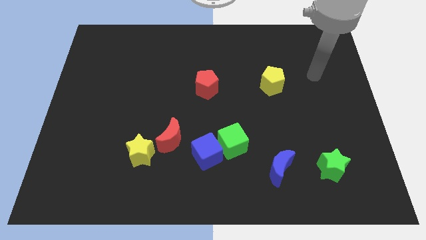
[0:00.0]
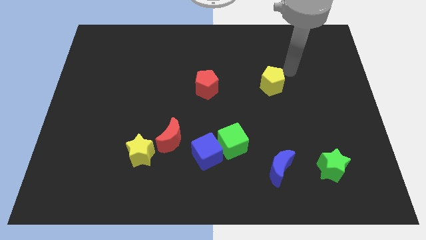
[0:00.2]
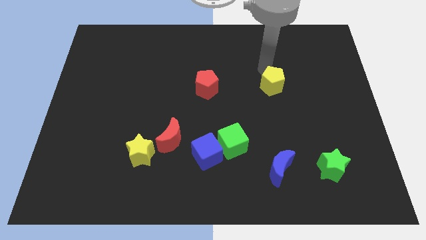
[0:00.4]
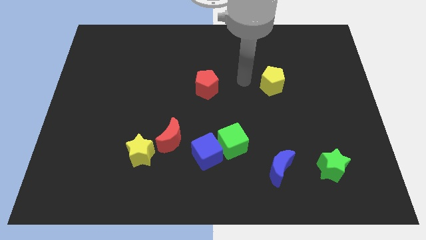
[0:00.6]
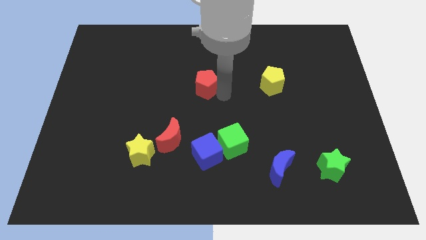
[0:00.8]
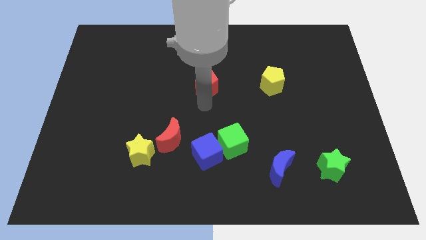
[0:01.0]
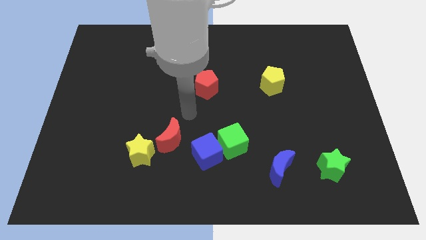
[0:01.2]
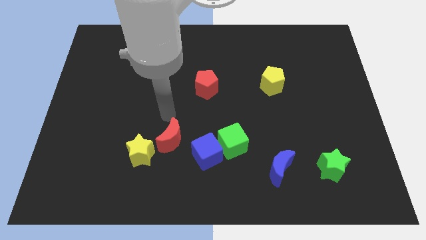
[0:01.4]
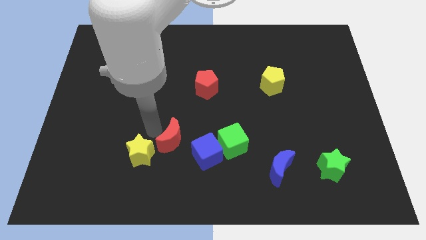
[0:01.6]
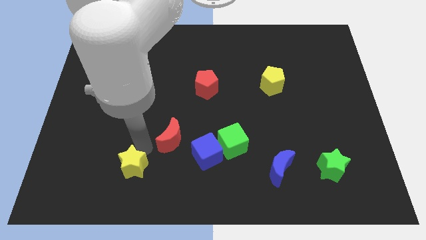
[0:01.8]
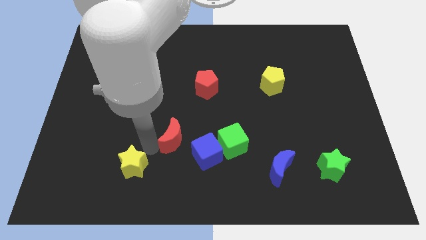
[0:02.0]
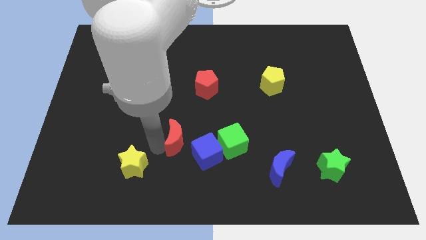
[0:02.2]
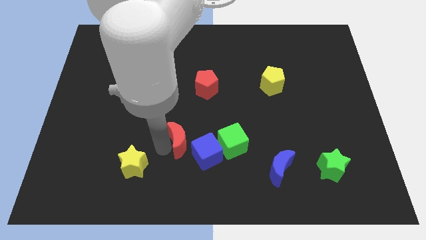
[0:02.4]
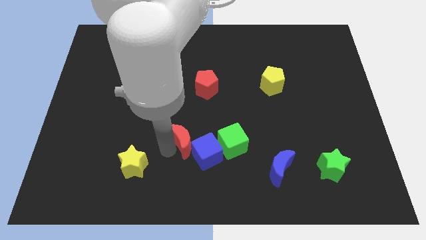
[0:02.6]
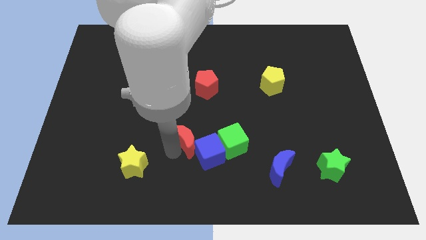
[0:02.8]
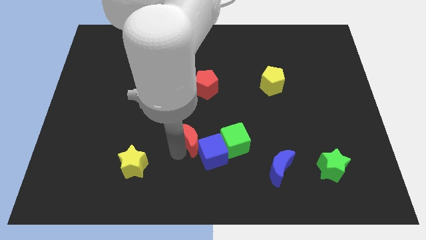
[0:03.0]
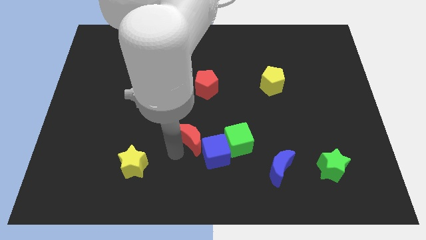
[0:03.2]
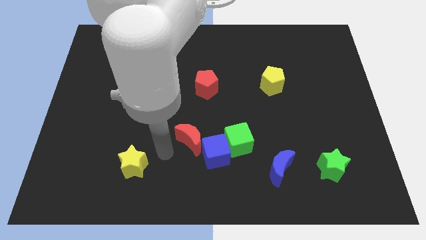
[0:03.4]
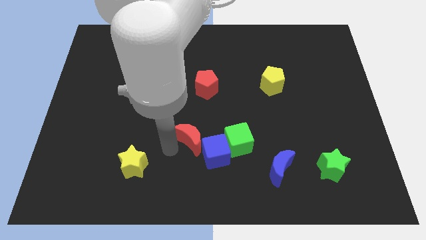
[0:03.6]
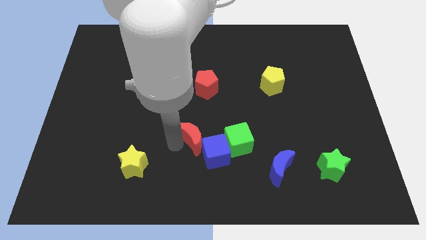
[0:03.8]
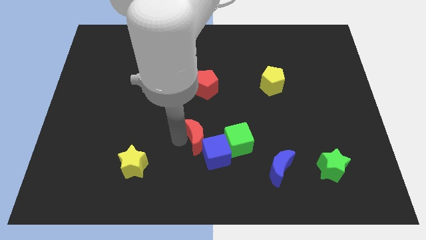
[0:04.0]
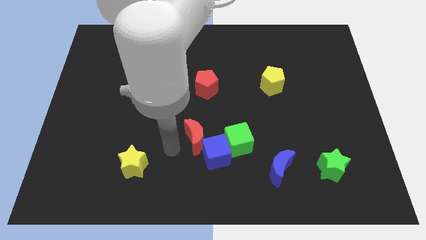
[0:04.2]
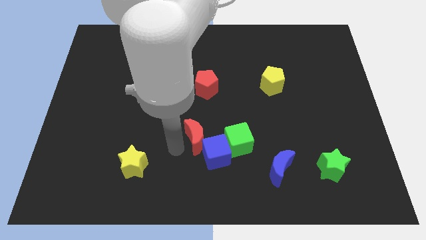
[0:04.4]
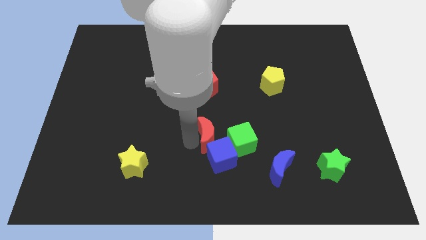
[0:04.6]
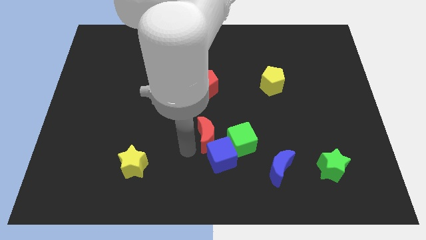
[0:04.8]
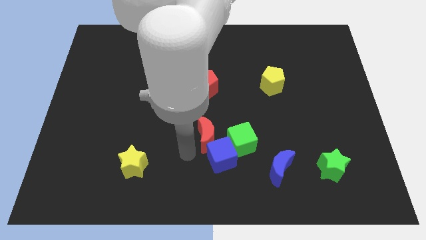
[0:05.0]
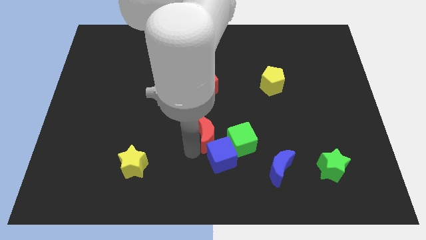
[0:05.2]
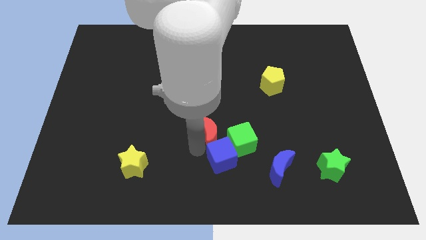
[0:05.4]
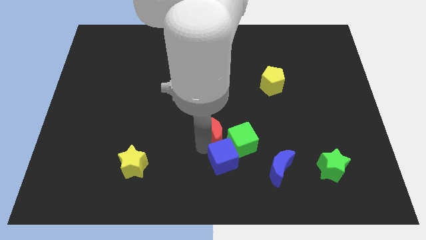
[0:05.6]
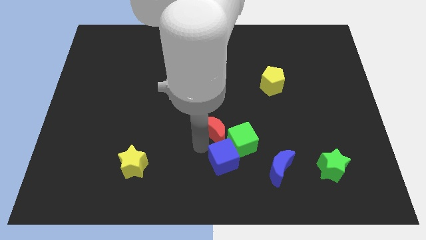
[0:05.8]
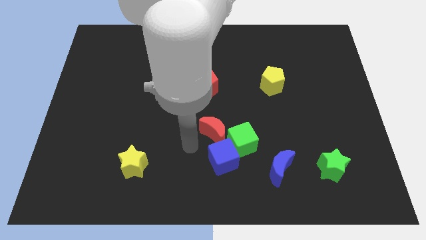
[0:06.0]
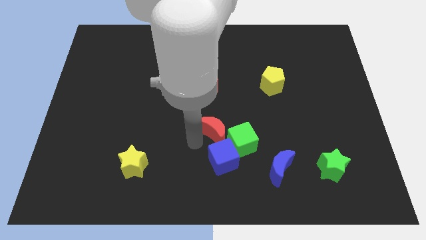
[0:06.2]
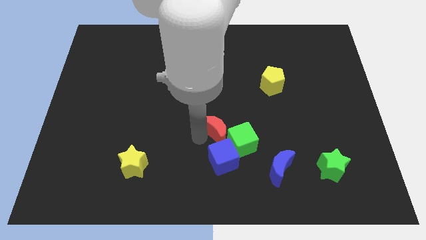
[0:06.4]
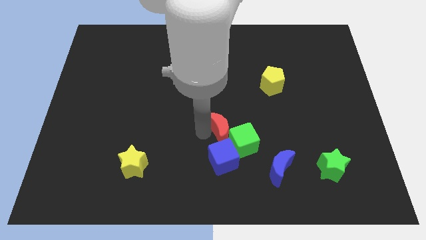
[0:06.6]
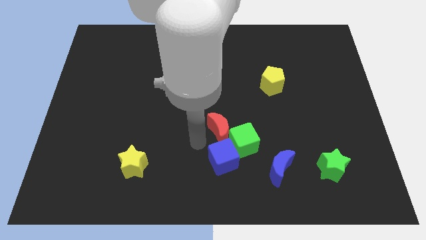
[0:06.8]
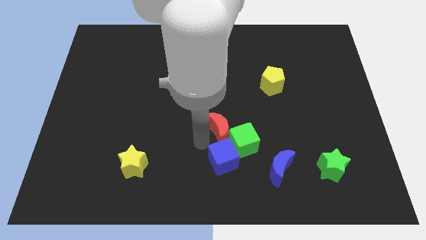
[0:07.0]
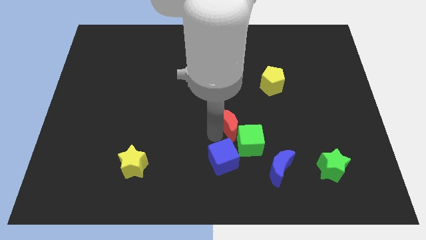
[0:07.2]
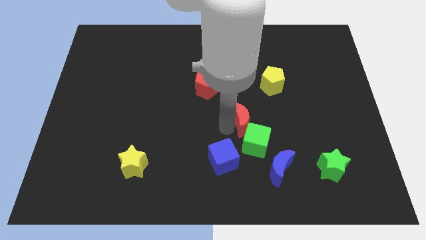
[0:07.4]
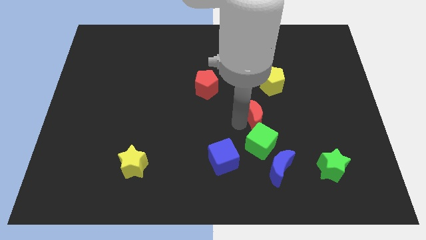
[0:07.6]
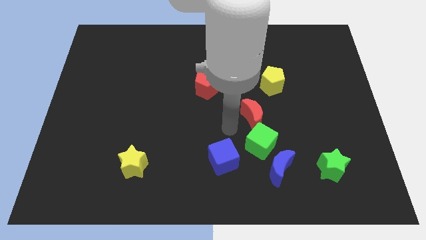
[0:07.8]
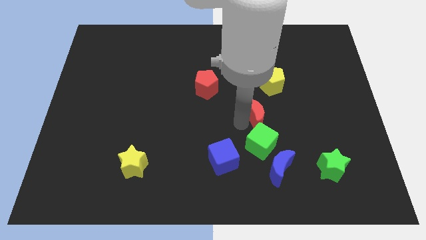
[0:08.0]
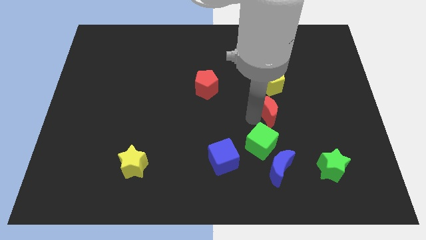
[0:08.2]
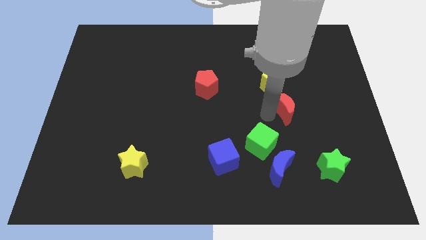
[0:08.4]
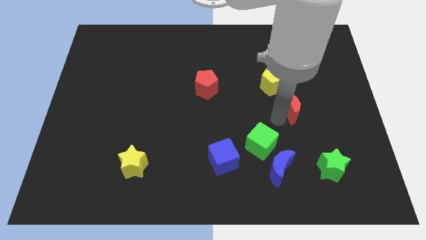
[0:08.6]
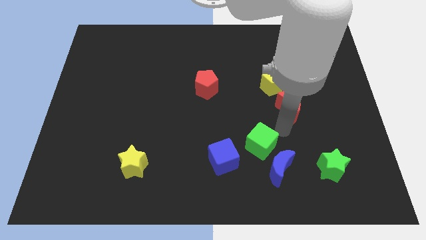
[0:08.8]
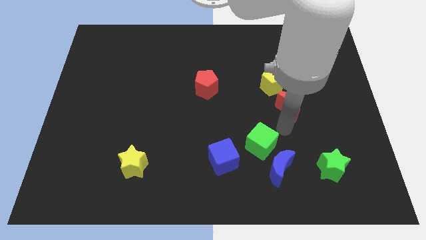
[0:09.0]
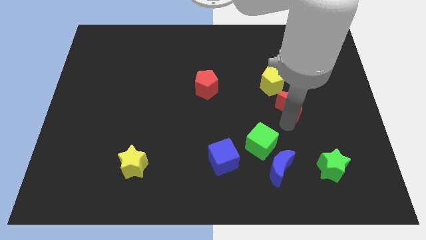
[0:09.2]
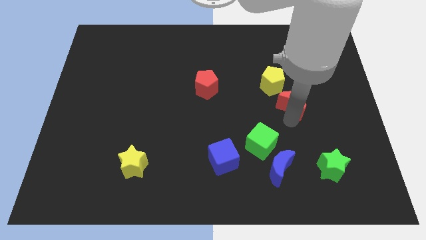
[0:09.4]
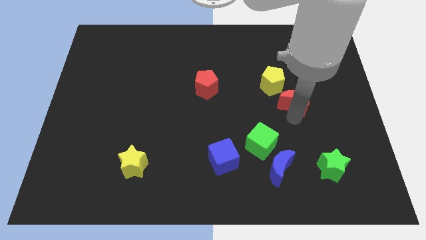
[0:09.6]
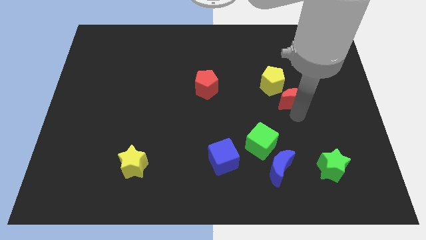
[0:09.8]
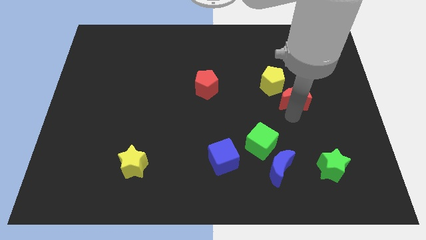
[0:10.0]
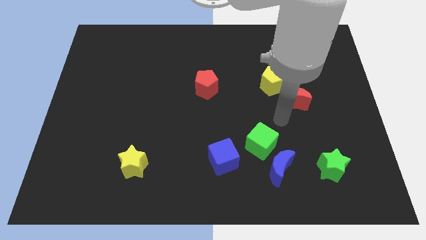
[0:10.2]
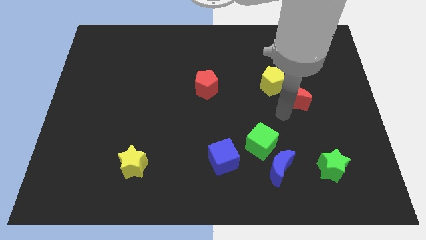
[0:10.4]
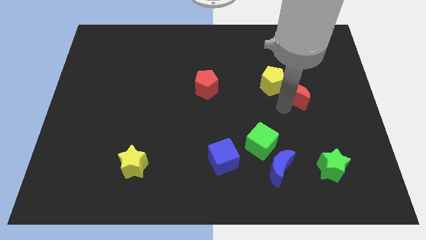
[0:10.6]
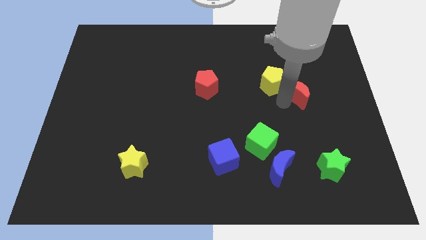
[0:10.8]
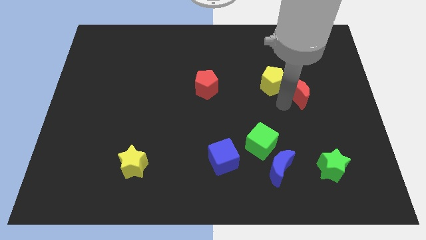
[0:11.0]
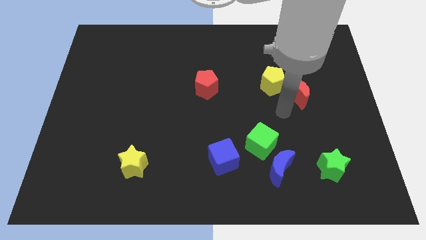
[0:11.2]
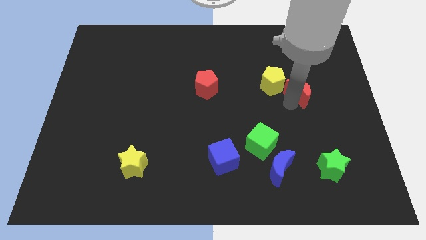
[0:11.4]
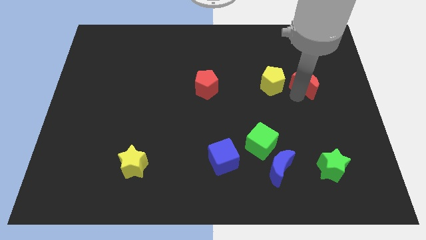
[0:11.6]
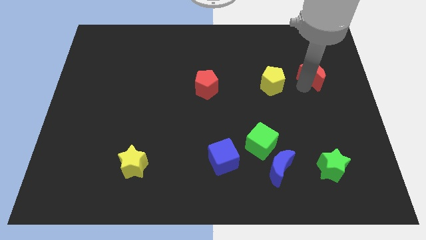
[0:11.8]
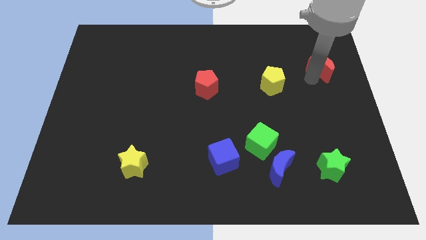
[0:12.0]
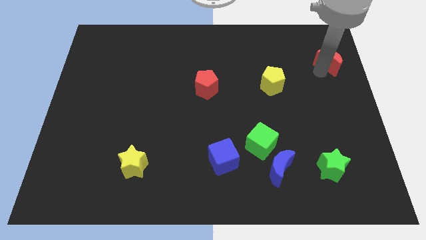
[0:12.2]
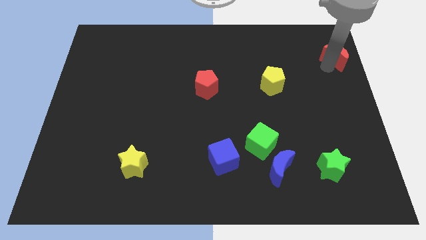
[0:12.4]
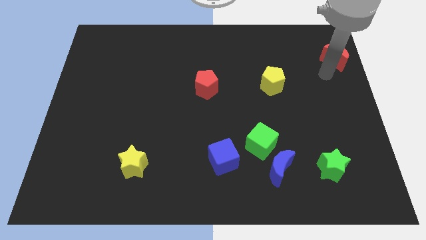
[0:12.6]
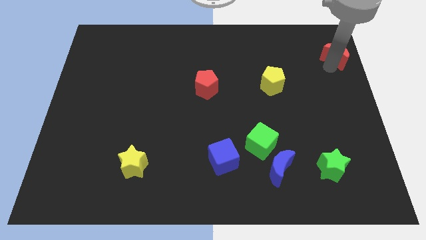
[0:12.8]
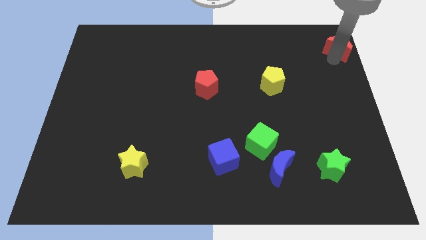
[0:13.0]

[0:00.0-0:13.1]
move the red moon to the top right corner
